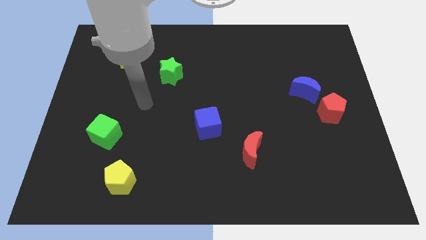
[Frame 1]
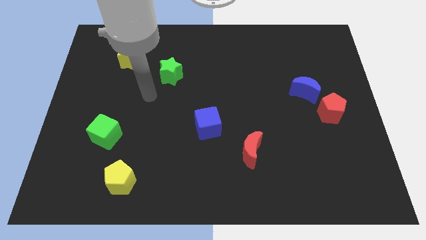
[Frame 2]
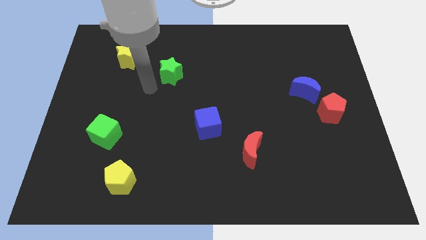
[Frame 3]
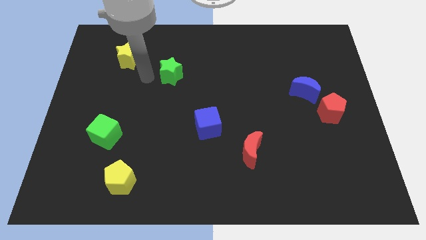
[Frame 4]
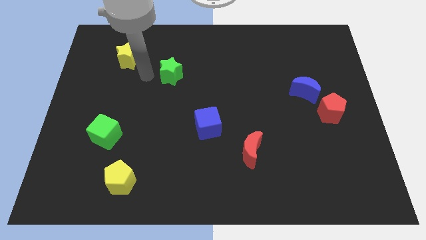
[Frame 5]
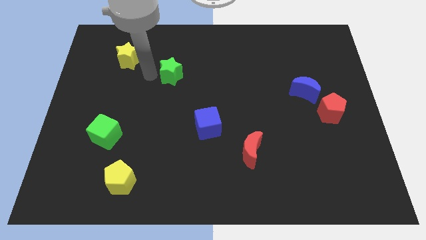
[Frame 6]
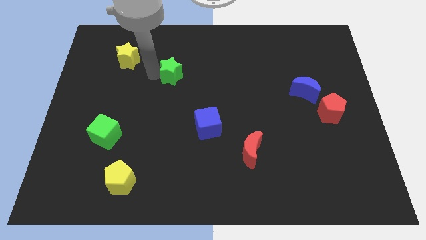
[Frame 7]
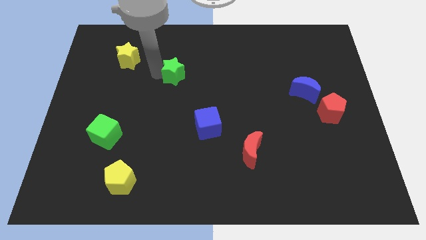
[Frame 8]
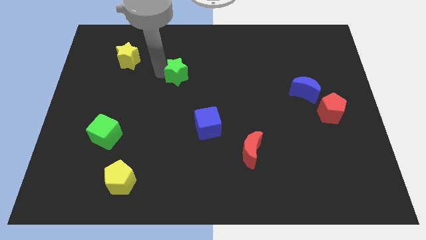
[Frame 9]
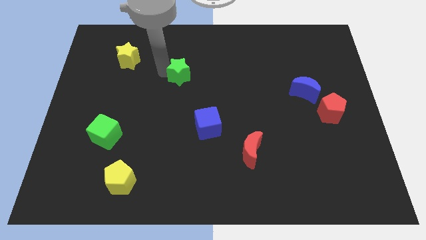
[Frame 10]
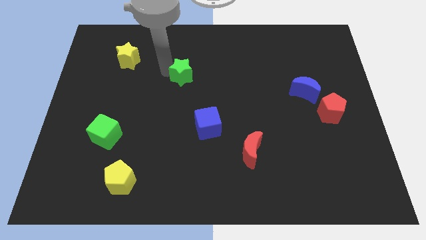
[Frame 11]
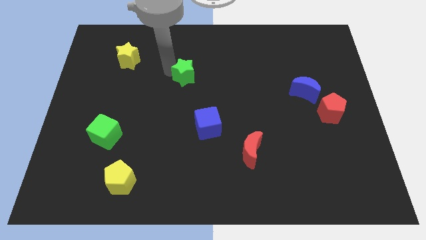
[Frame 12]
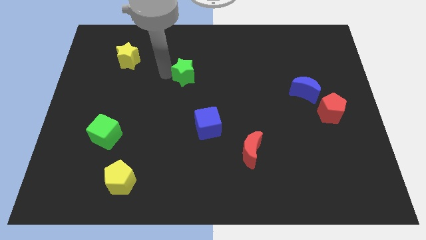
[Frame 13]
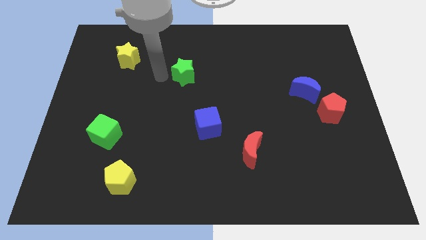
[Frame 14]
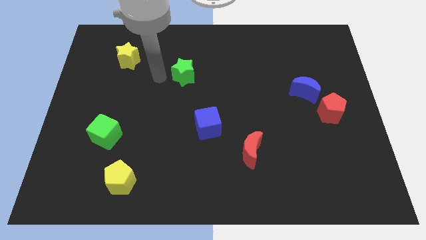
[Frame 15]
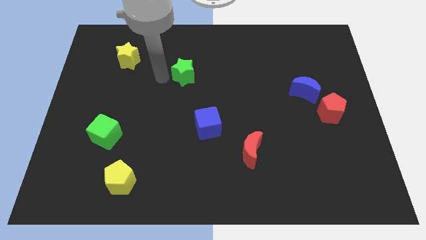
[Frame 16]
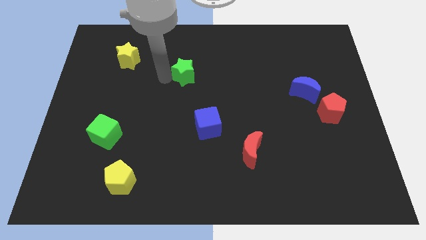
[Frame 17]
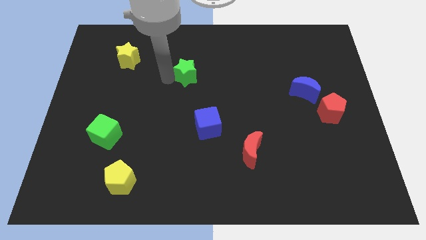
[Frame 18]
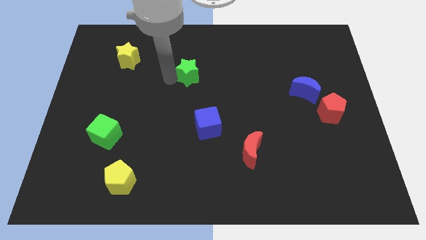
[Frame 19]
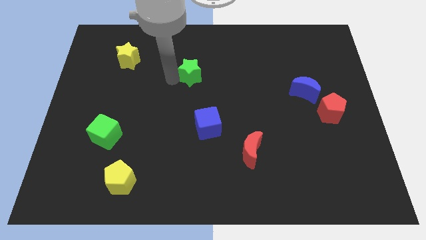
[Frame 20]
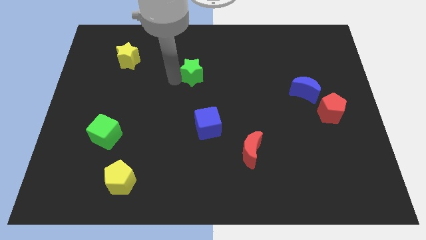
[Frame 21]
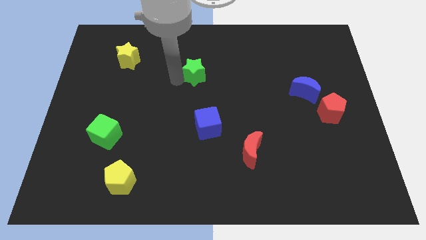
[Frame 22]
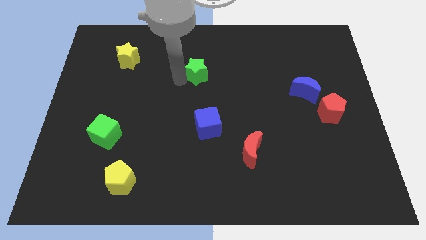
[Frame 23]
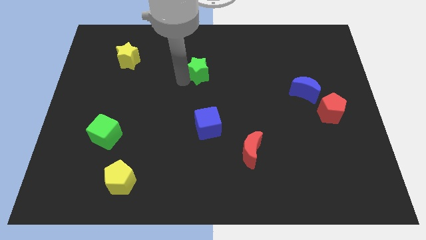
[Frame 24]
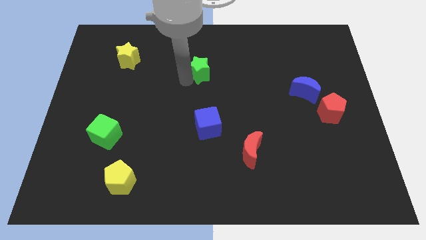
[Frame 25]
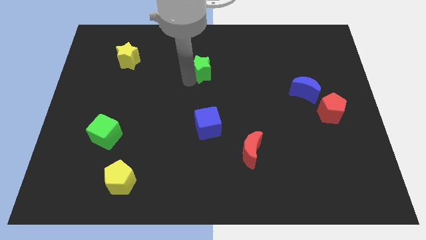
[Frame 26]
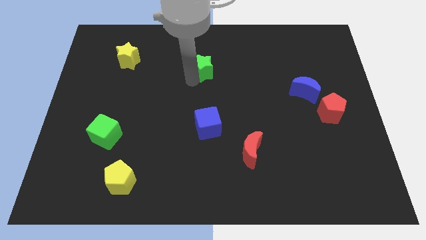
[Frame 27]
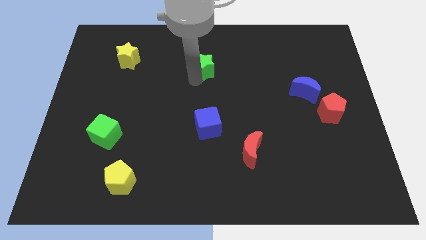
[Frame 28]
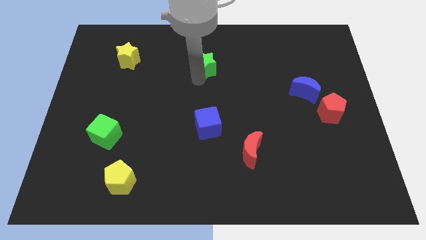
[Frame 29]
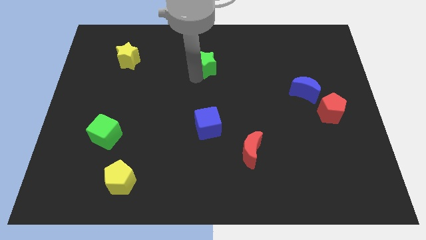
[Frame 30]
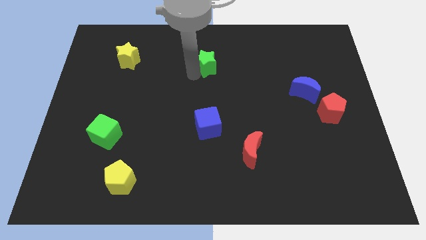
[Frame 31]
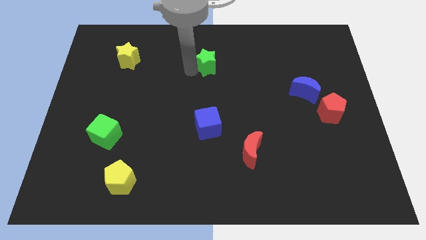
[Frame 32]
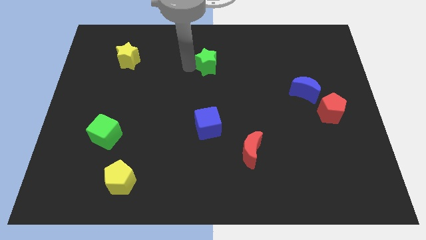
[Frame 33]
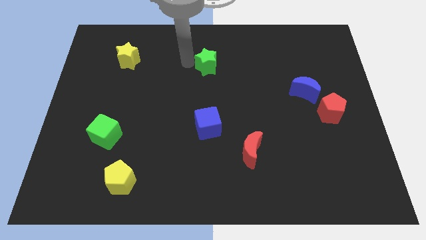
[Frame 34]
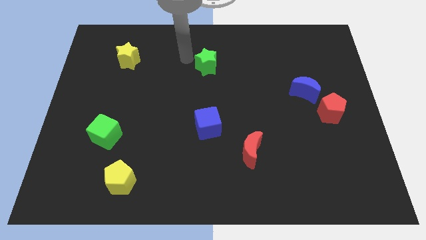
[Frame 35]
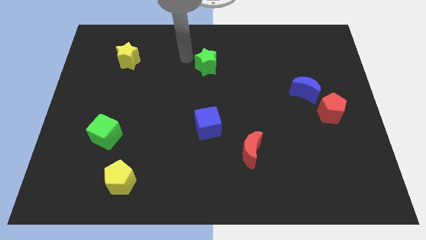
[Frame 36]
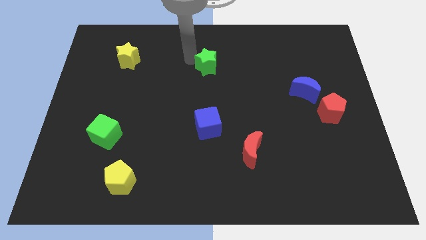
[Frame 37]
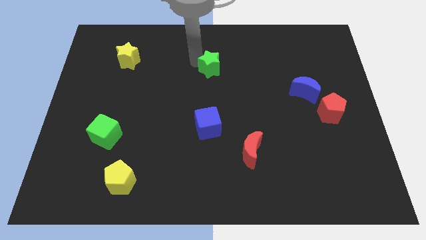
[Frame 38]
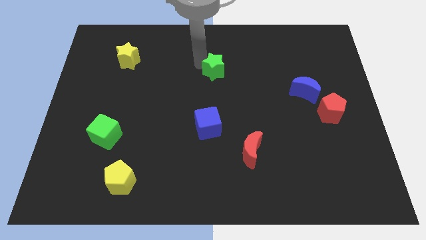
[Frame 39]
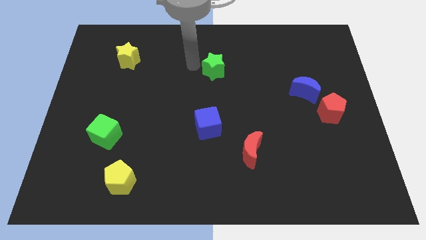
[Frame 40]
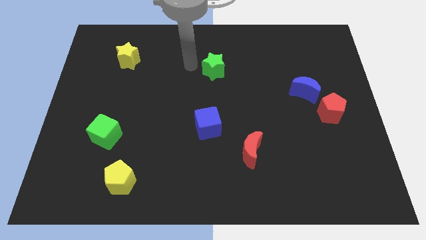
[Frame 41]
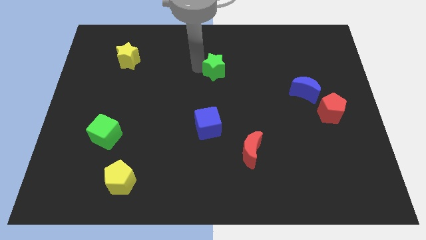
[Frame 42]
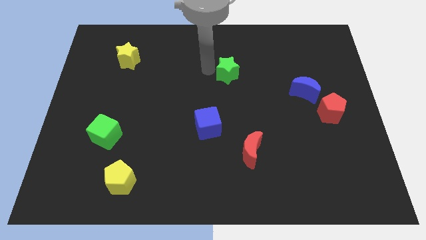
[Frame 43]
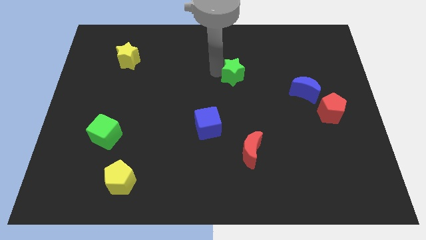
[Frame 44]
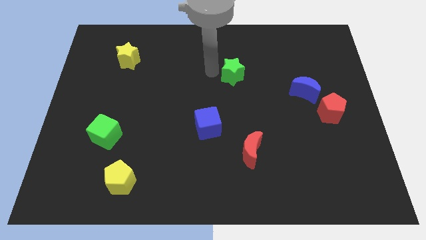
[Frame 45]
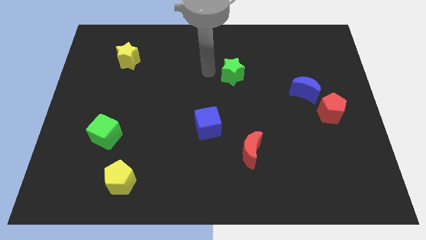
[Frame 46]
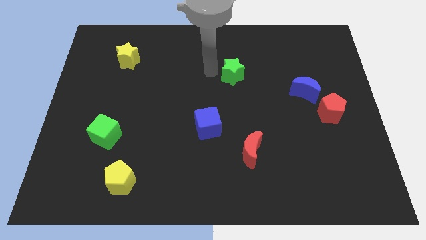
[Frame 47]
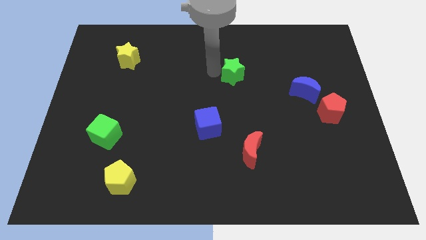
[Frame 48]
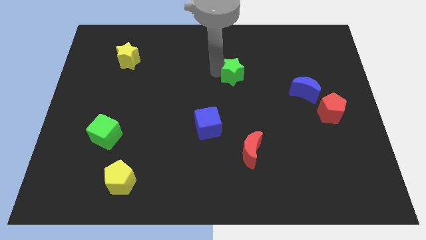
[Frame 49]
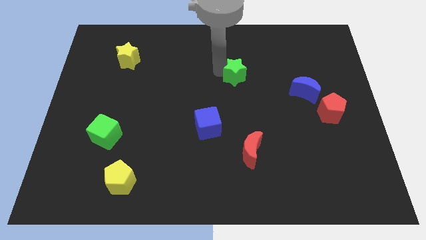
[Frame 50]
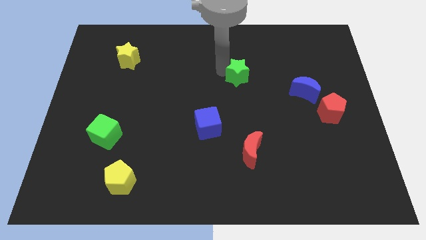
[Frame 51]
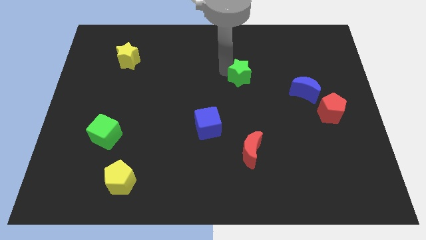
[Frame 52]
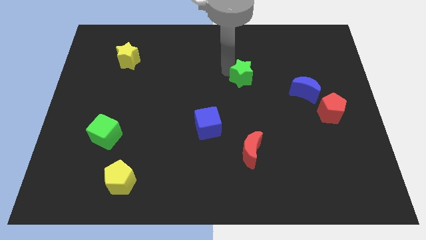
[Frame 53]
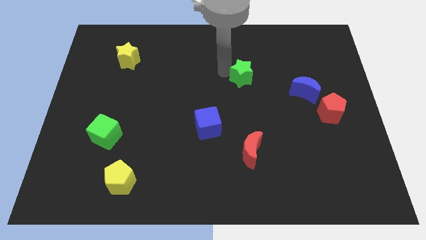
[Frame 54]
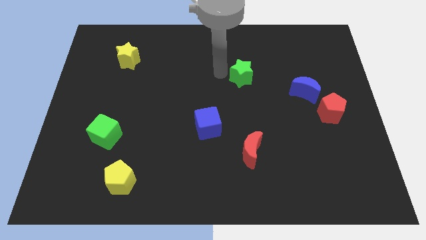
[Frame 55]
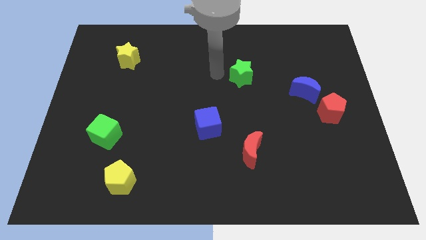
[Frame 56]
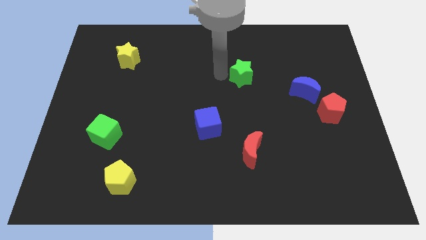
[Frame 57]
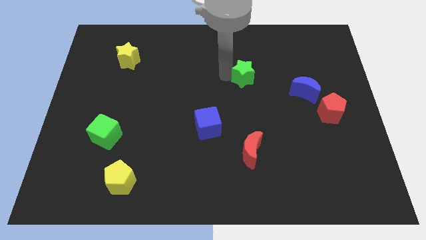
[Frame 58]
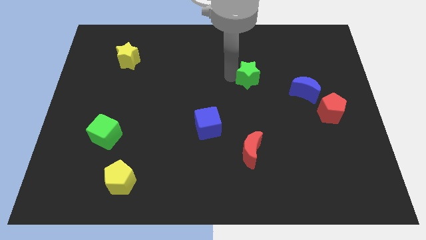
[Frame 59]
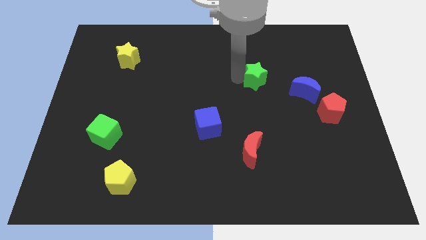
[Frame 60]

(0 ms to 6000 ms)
push the green star to the right

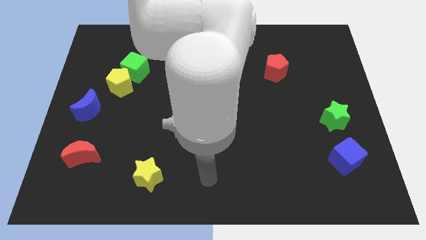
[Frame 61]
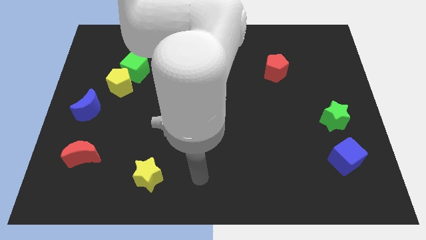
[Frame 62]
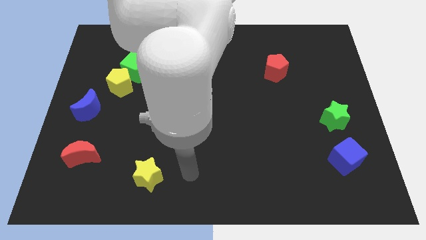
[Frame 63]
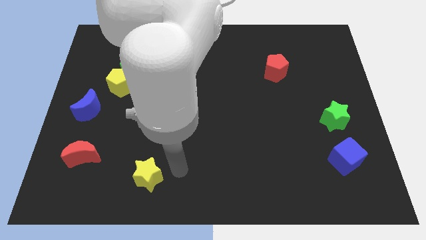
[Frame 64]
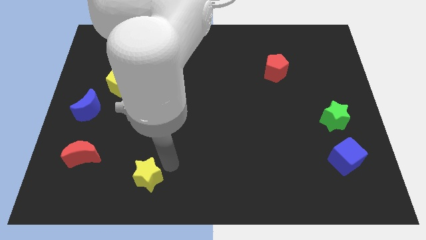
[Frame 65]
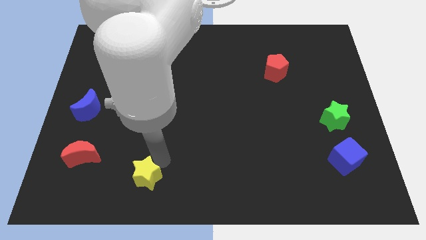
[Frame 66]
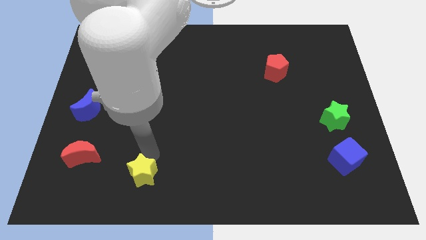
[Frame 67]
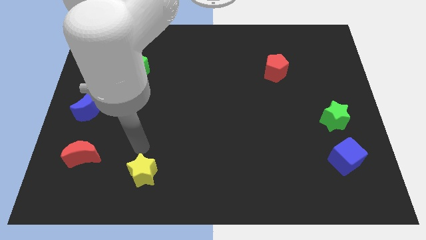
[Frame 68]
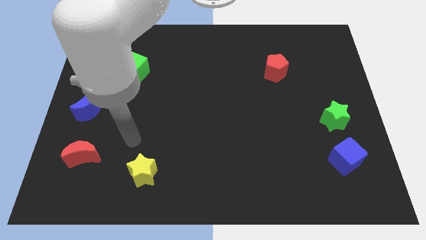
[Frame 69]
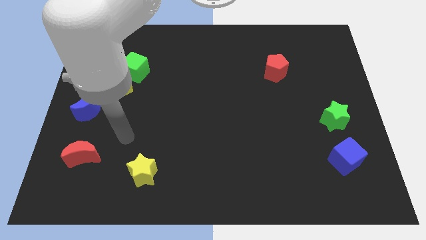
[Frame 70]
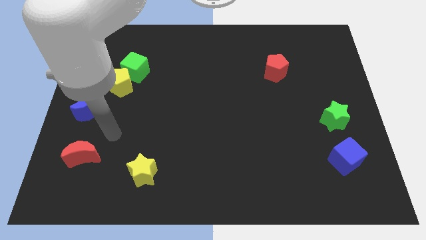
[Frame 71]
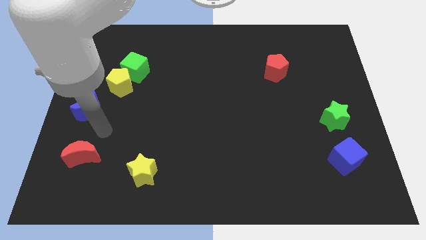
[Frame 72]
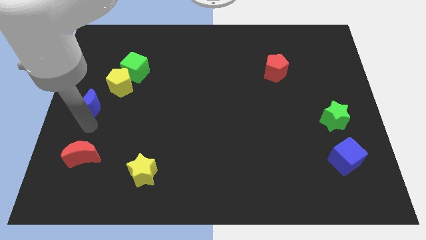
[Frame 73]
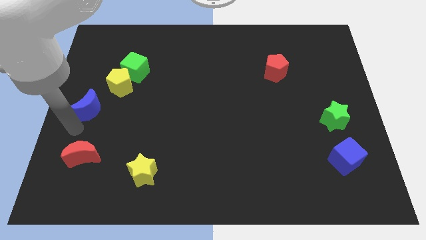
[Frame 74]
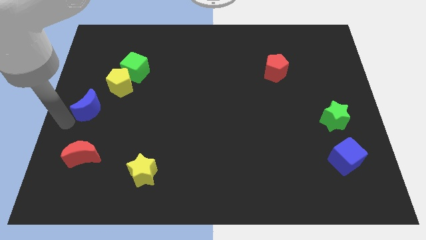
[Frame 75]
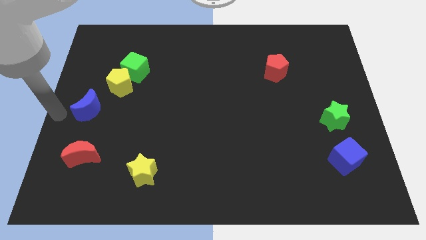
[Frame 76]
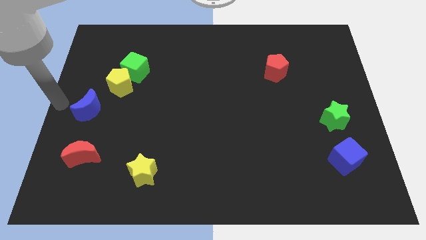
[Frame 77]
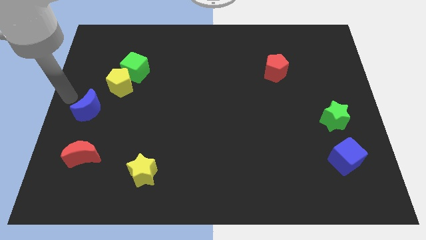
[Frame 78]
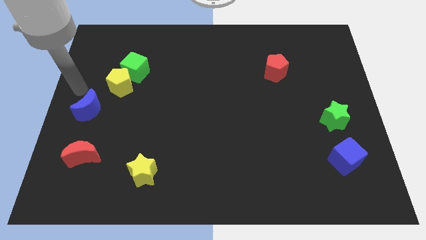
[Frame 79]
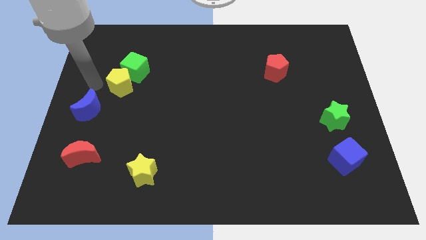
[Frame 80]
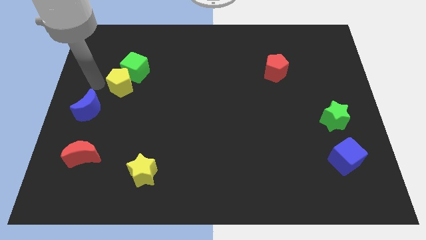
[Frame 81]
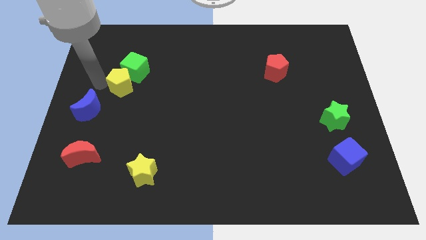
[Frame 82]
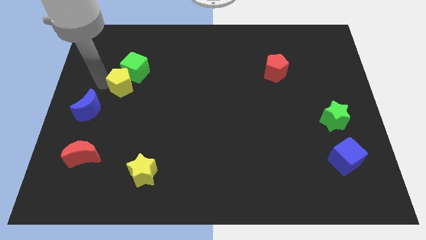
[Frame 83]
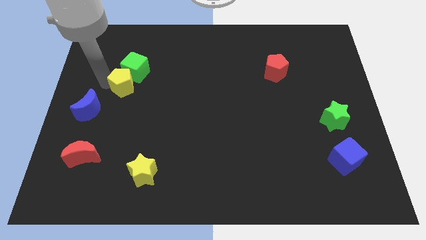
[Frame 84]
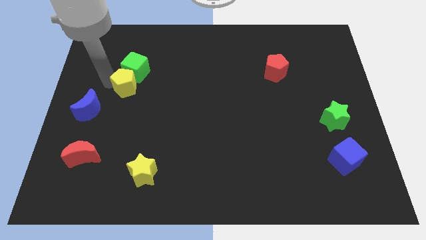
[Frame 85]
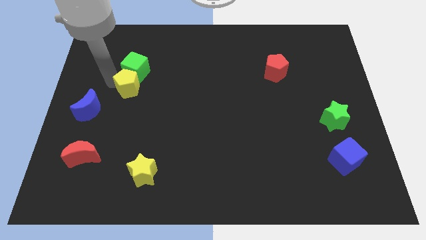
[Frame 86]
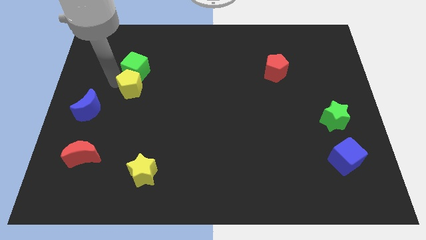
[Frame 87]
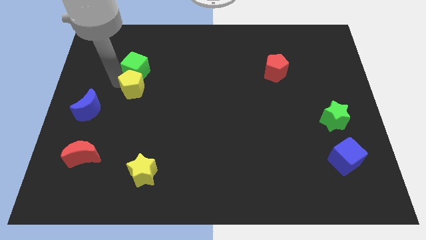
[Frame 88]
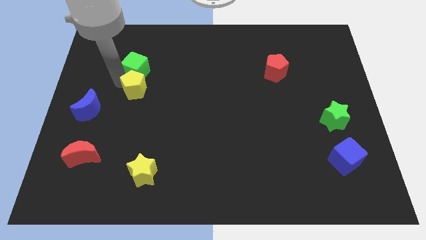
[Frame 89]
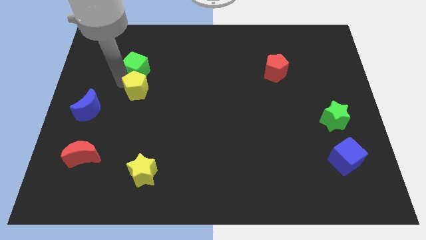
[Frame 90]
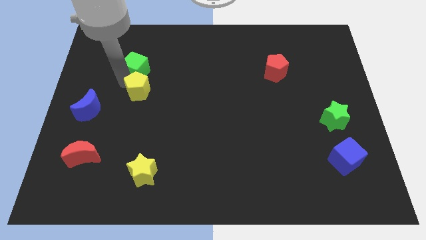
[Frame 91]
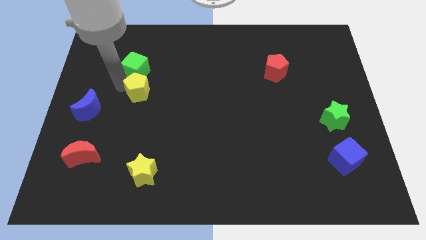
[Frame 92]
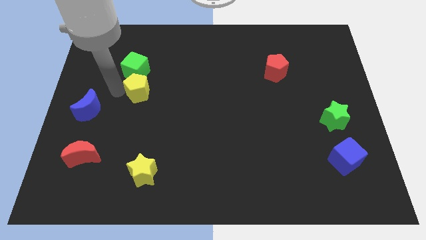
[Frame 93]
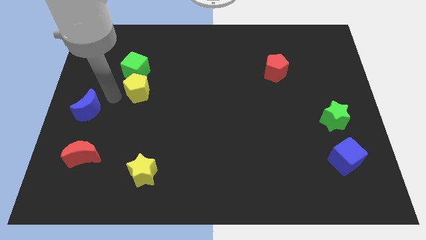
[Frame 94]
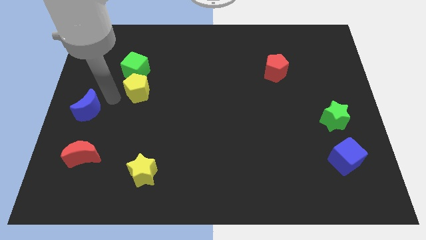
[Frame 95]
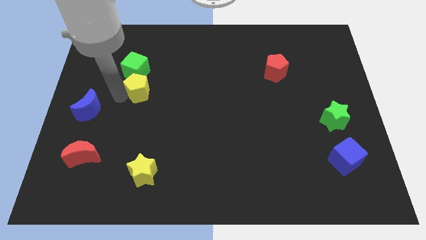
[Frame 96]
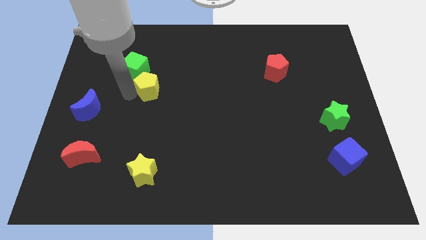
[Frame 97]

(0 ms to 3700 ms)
slightly slide the yellow pentagon right
